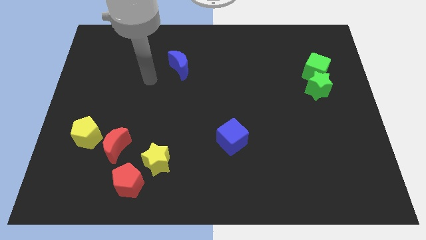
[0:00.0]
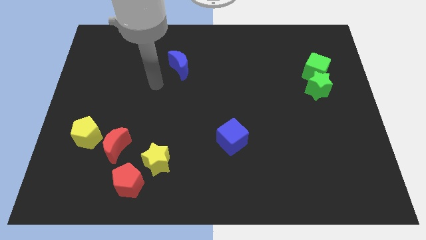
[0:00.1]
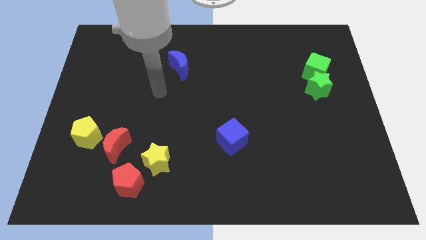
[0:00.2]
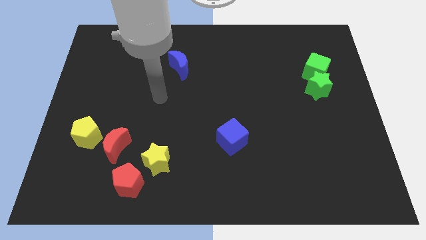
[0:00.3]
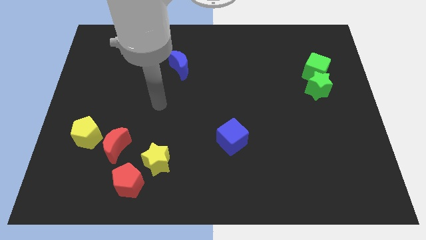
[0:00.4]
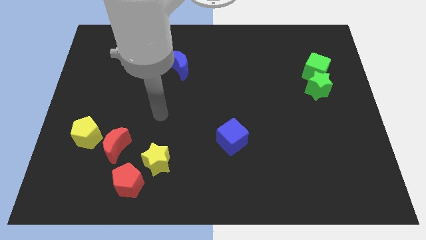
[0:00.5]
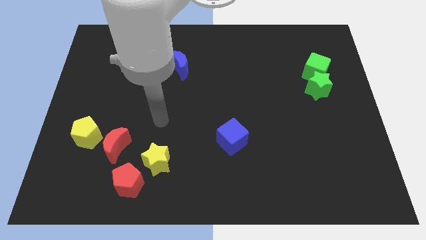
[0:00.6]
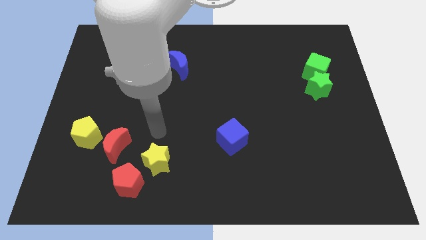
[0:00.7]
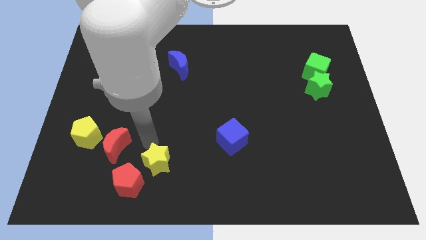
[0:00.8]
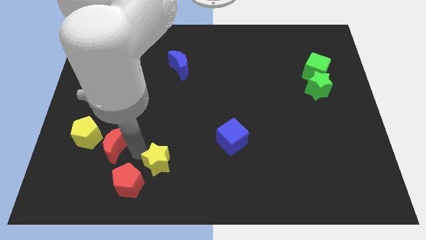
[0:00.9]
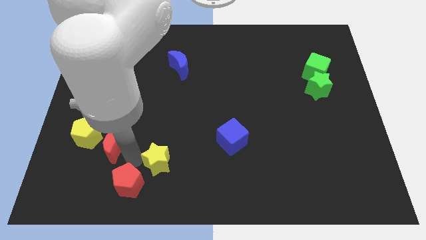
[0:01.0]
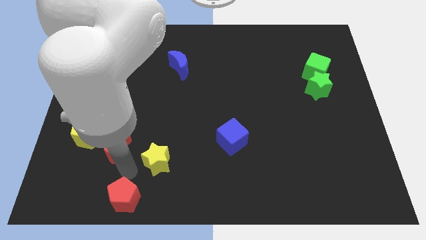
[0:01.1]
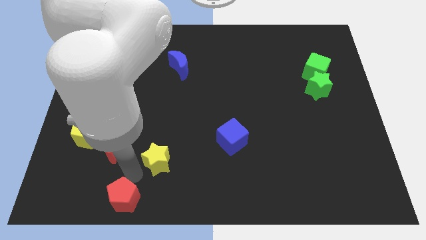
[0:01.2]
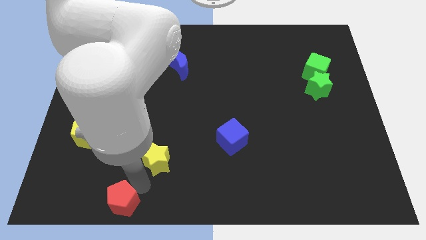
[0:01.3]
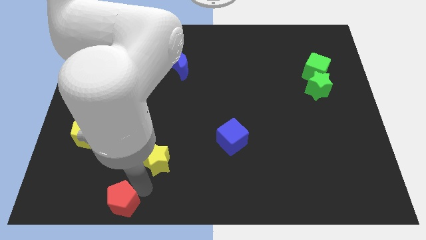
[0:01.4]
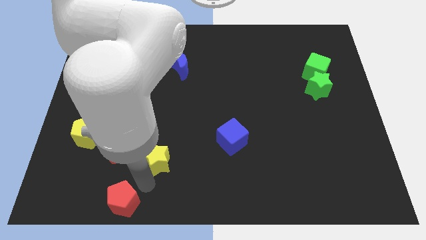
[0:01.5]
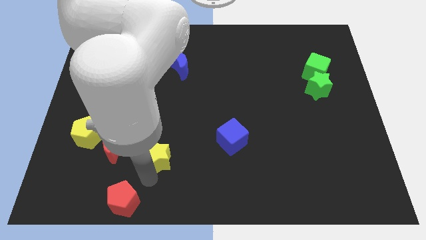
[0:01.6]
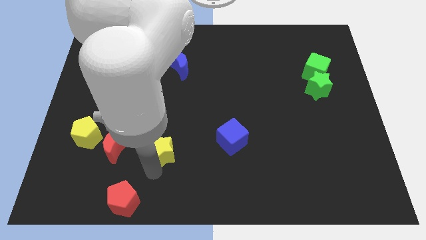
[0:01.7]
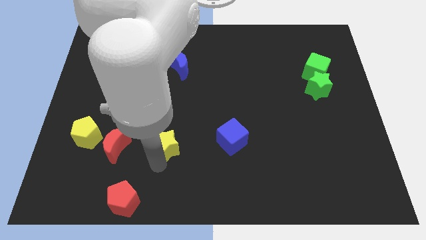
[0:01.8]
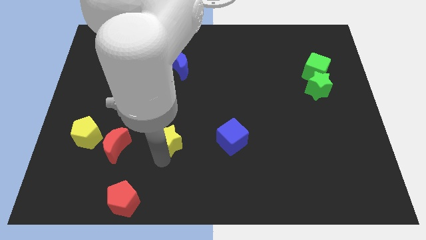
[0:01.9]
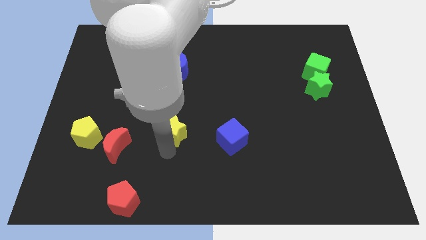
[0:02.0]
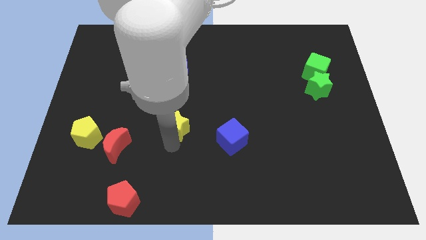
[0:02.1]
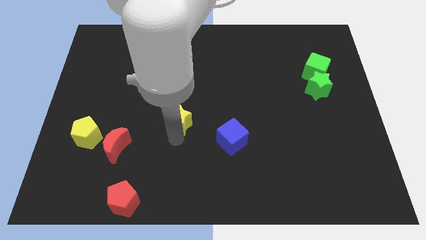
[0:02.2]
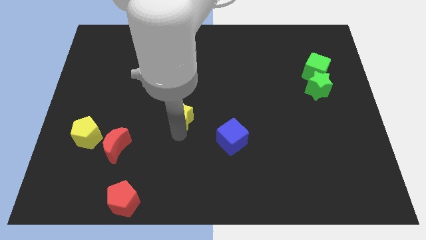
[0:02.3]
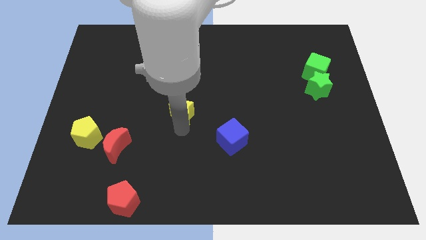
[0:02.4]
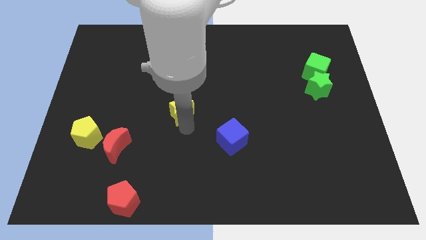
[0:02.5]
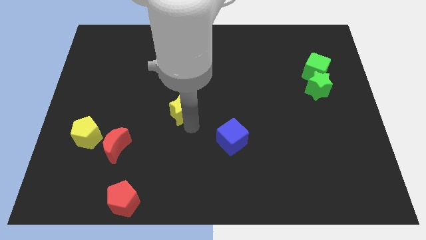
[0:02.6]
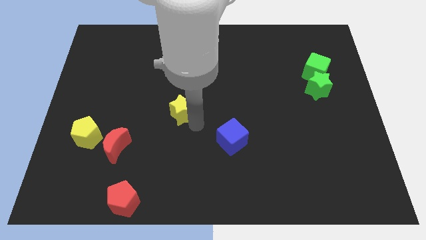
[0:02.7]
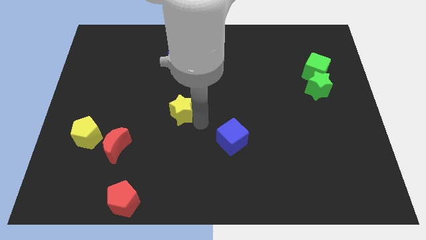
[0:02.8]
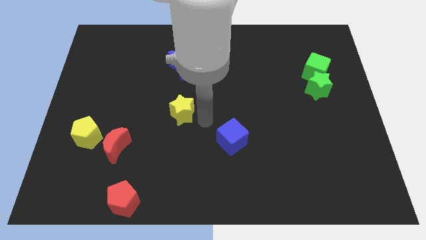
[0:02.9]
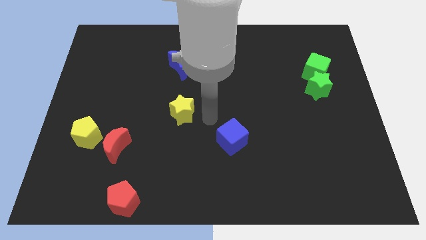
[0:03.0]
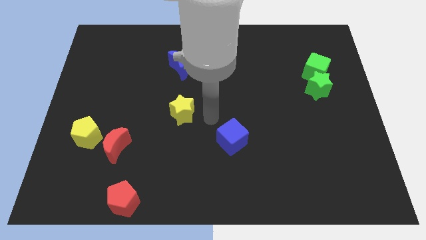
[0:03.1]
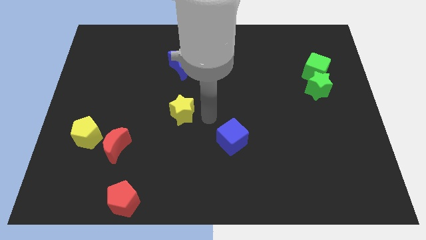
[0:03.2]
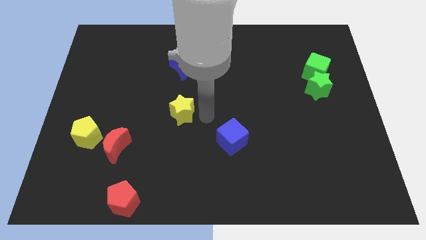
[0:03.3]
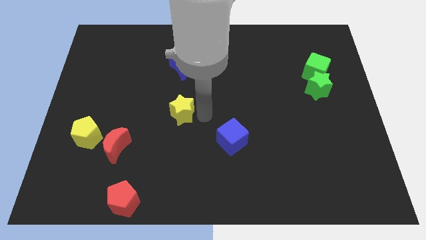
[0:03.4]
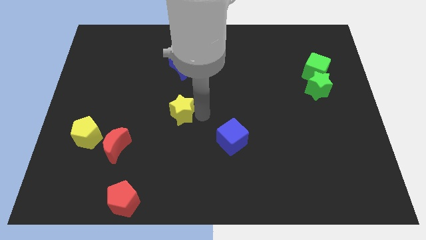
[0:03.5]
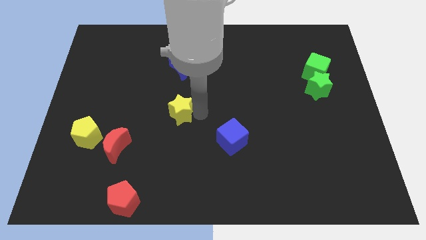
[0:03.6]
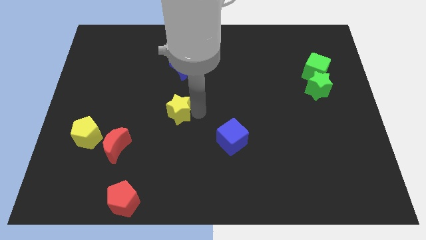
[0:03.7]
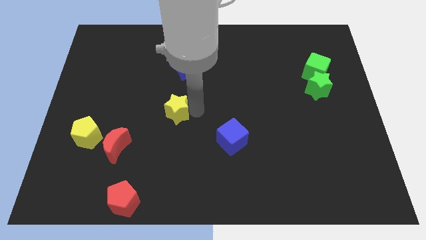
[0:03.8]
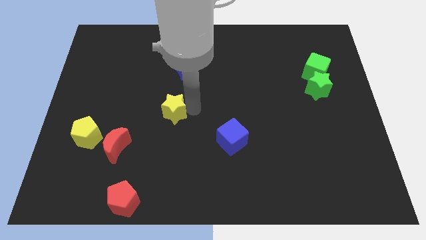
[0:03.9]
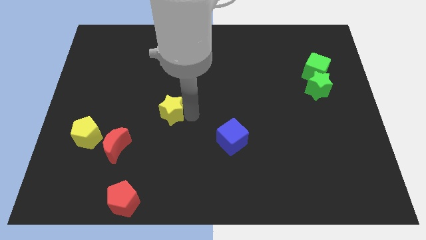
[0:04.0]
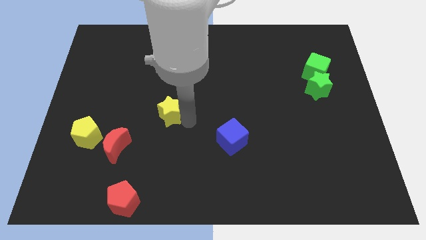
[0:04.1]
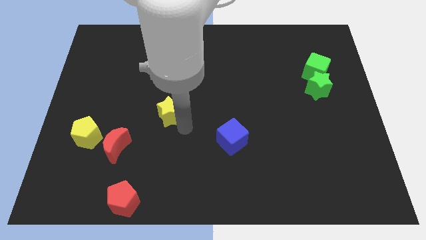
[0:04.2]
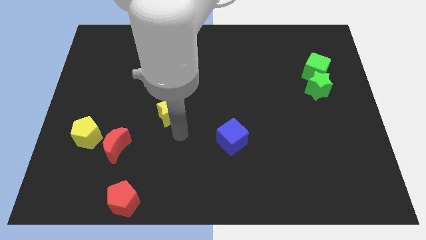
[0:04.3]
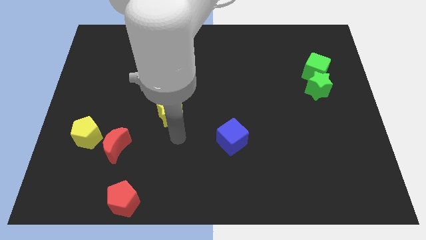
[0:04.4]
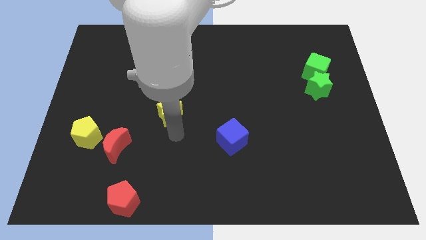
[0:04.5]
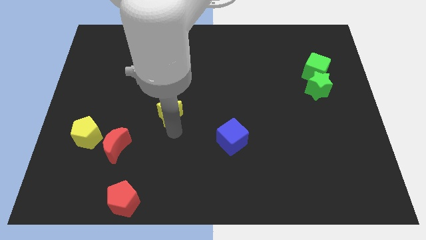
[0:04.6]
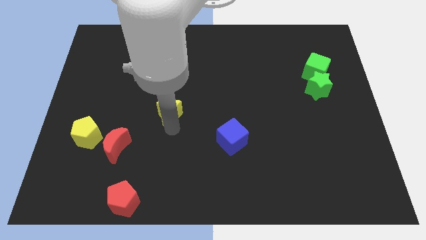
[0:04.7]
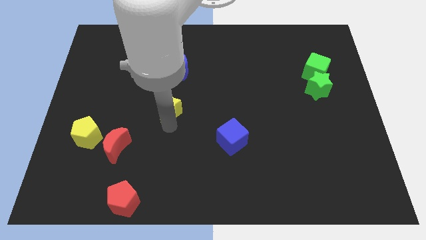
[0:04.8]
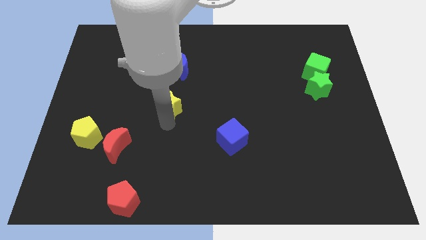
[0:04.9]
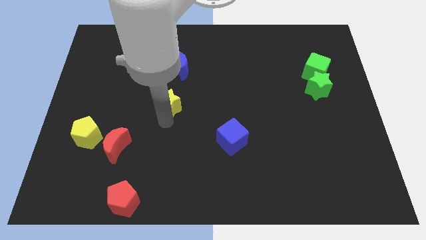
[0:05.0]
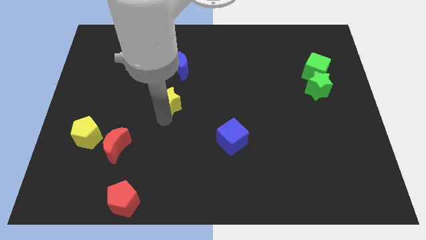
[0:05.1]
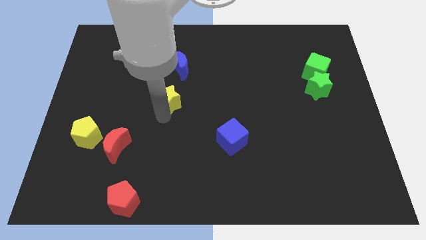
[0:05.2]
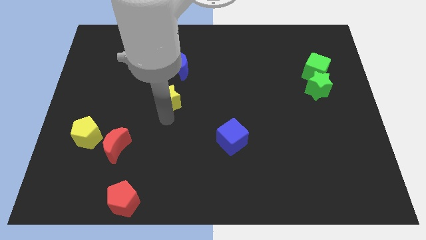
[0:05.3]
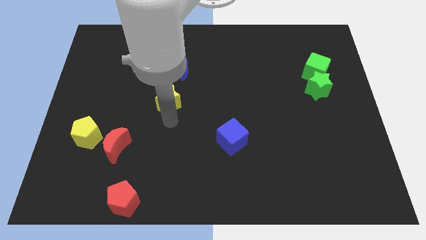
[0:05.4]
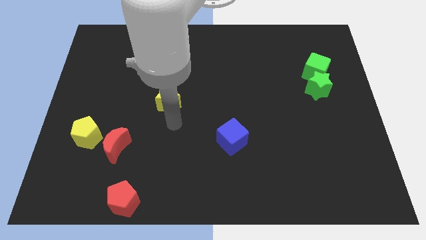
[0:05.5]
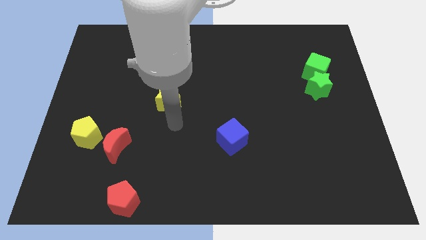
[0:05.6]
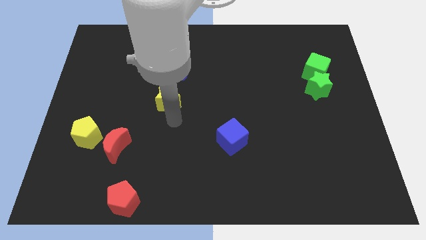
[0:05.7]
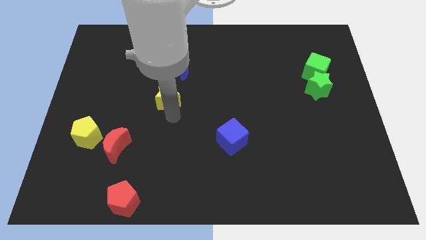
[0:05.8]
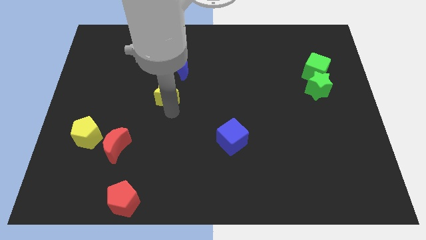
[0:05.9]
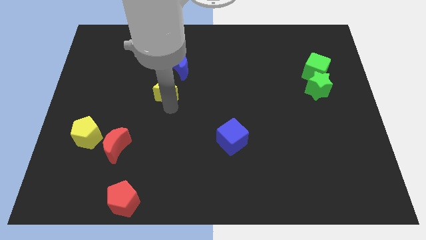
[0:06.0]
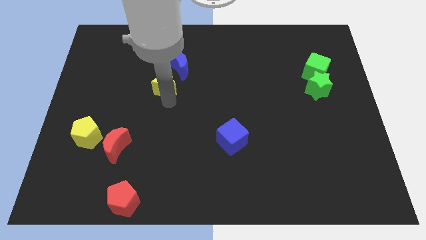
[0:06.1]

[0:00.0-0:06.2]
move the yellow star up

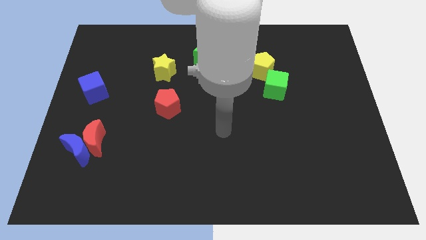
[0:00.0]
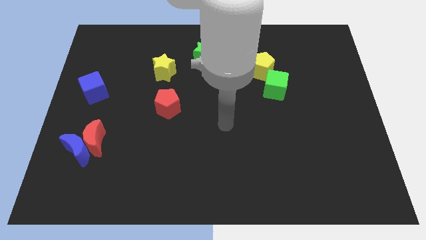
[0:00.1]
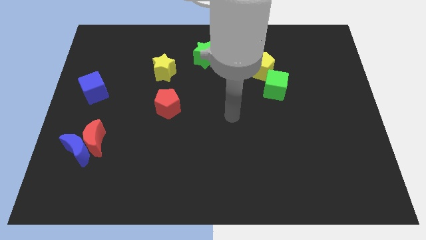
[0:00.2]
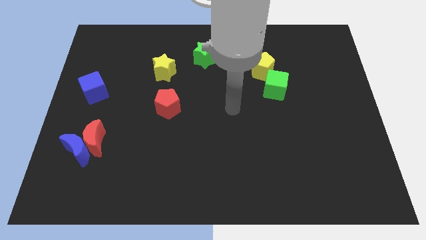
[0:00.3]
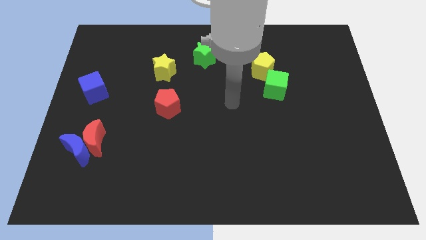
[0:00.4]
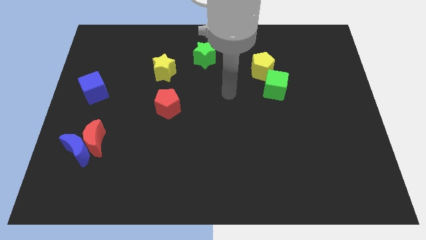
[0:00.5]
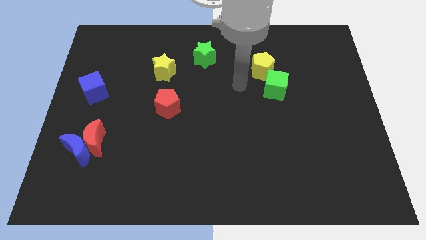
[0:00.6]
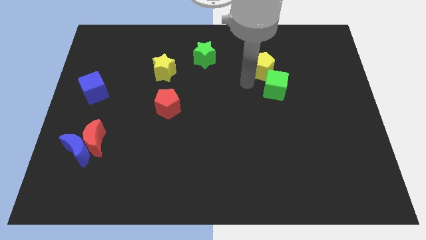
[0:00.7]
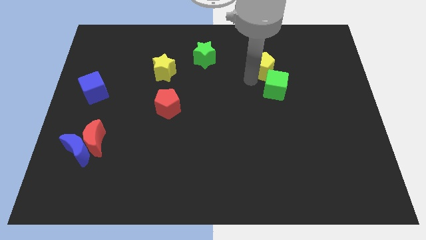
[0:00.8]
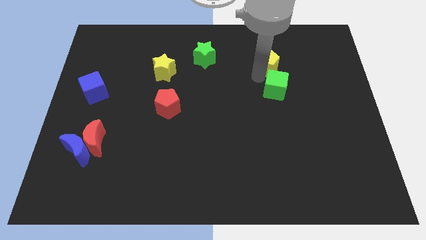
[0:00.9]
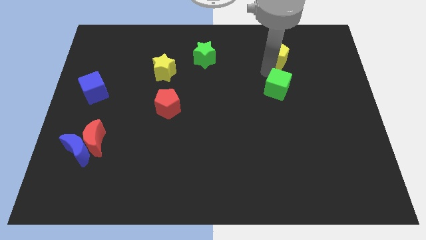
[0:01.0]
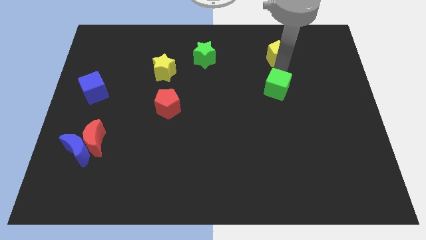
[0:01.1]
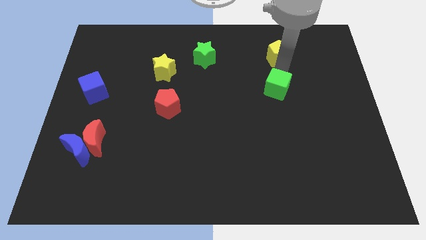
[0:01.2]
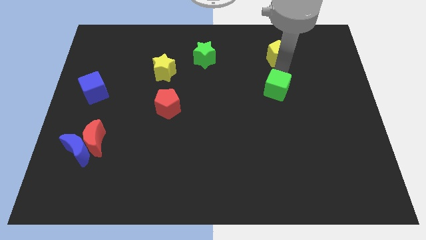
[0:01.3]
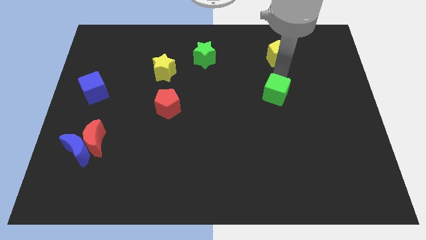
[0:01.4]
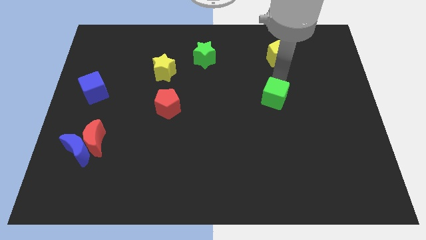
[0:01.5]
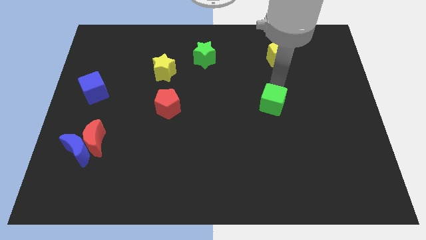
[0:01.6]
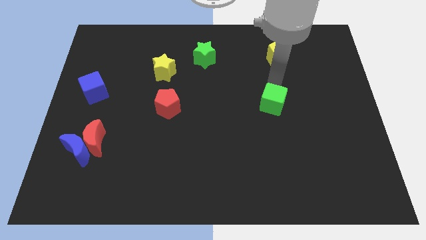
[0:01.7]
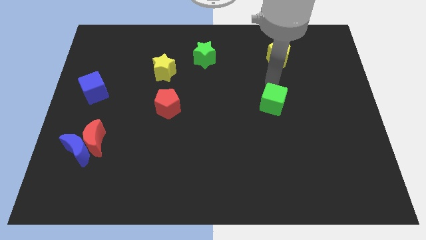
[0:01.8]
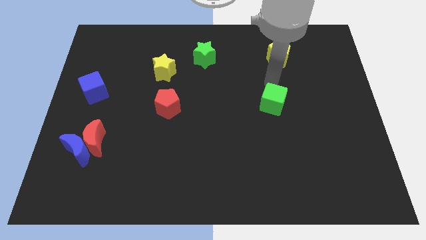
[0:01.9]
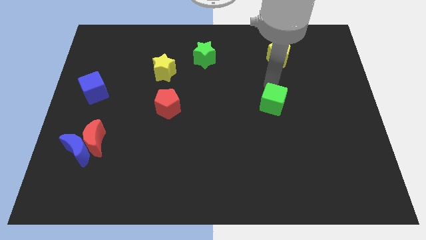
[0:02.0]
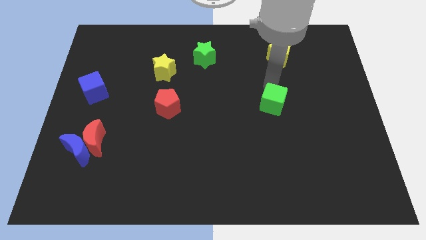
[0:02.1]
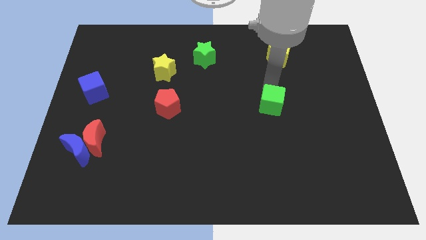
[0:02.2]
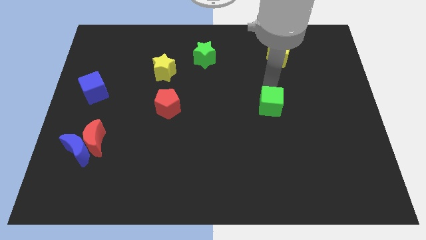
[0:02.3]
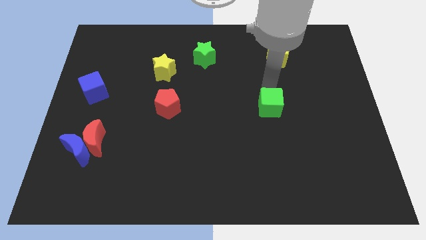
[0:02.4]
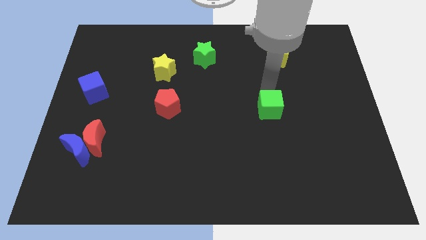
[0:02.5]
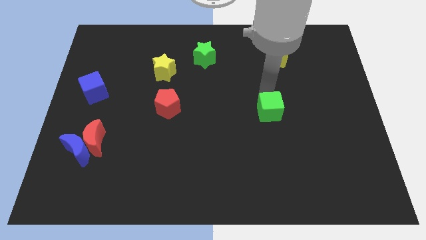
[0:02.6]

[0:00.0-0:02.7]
slightly move the green cube down
